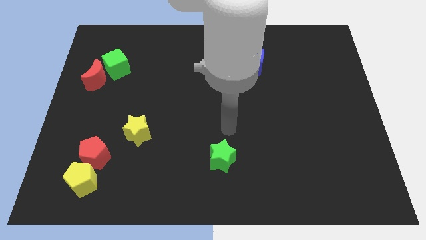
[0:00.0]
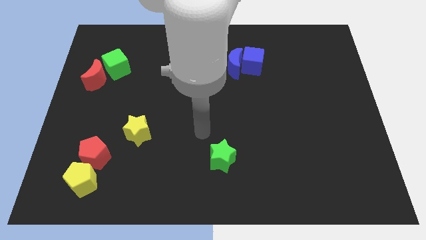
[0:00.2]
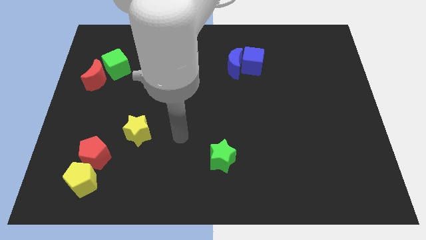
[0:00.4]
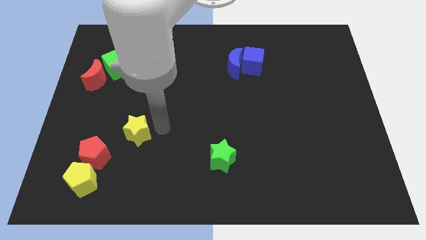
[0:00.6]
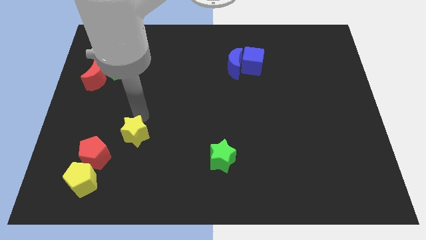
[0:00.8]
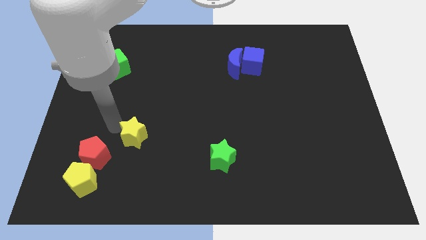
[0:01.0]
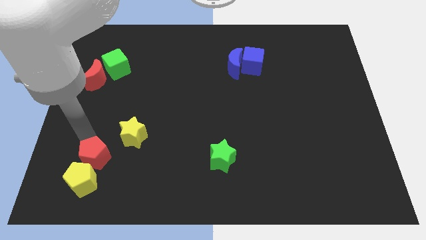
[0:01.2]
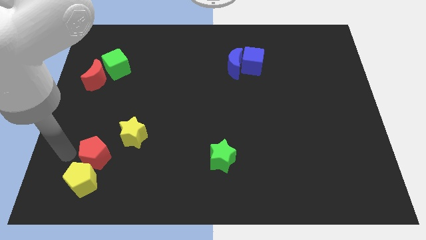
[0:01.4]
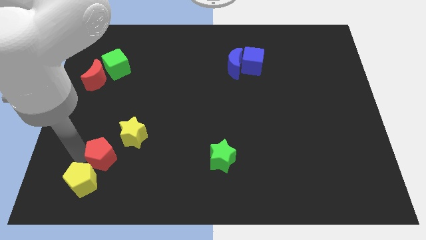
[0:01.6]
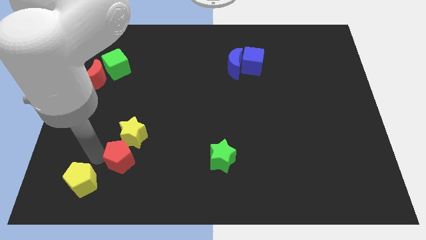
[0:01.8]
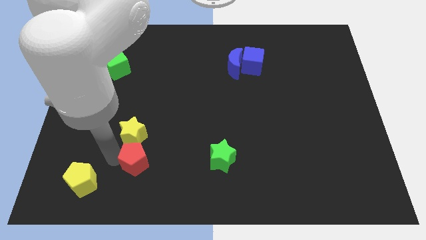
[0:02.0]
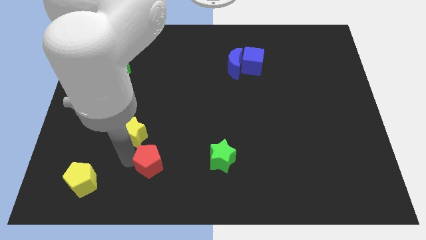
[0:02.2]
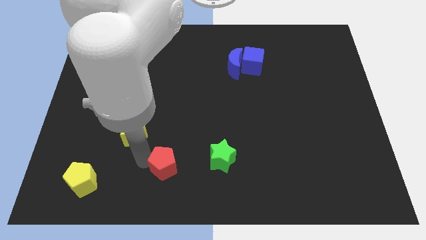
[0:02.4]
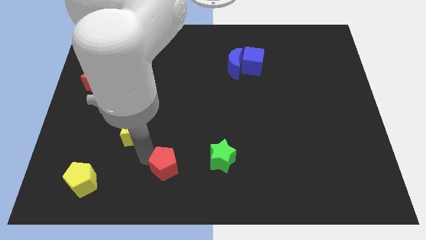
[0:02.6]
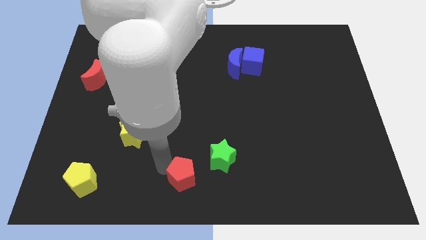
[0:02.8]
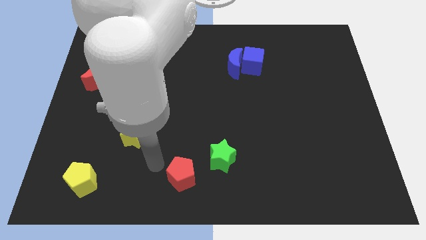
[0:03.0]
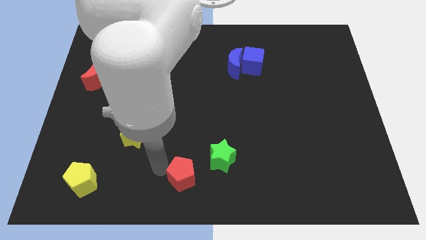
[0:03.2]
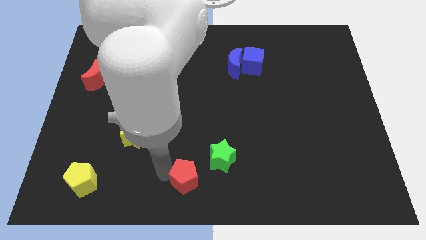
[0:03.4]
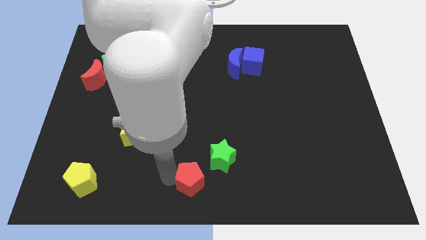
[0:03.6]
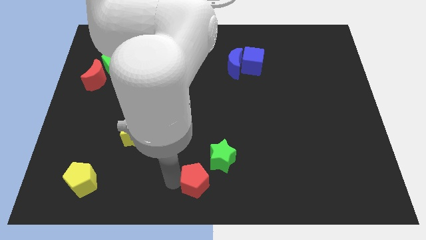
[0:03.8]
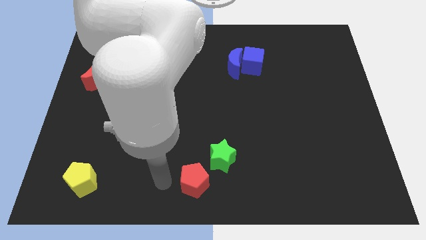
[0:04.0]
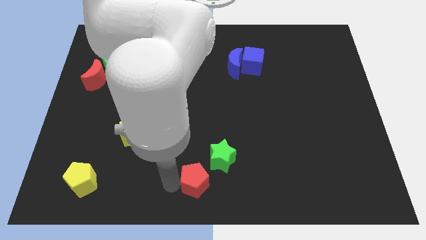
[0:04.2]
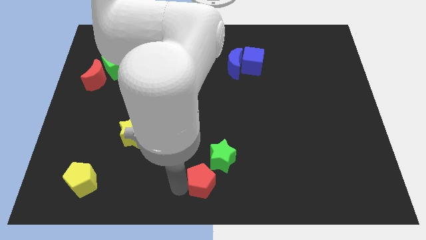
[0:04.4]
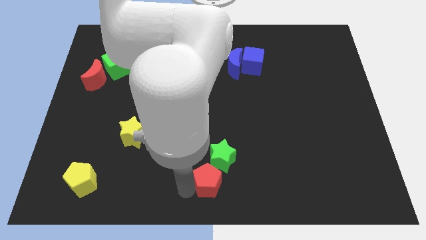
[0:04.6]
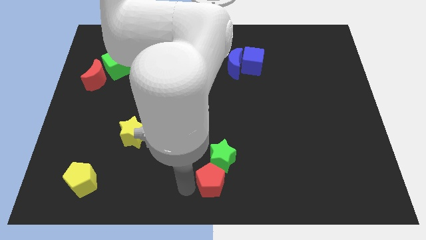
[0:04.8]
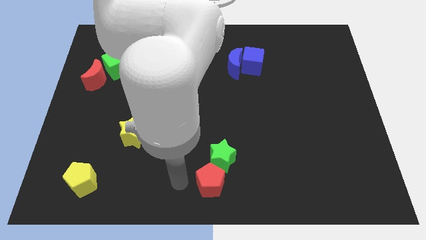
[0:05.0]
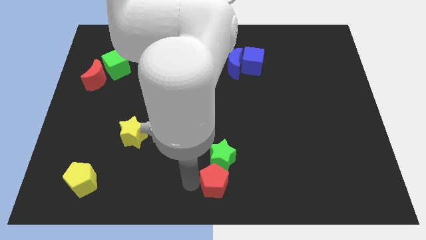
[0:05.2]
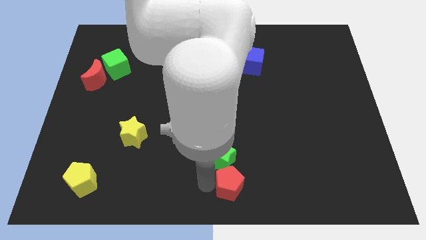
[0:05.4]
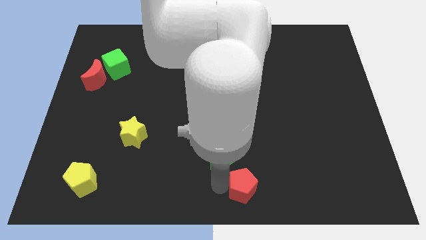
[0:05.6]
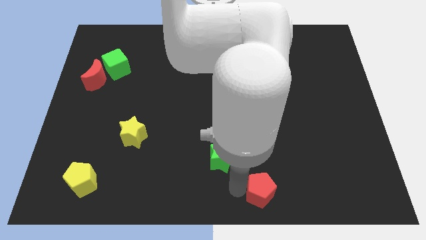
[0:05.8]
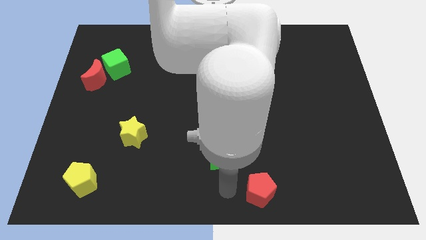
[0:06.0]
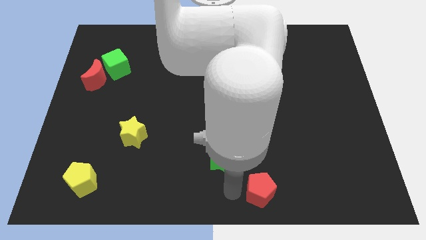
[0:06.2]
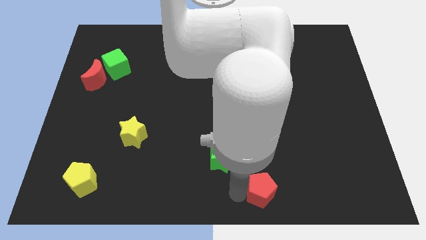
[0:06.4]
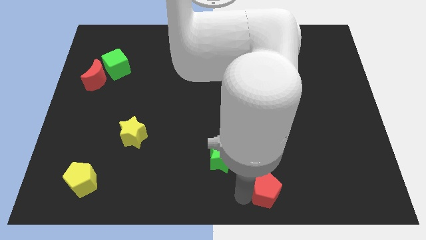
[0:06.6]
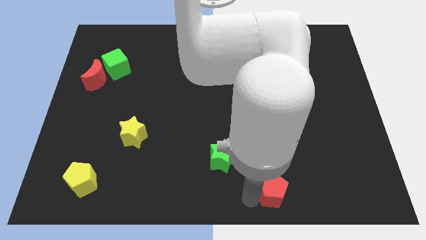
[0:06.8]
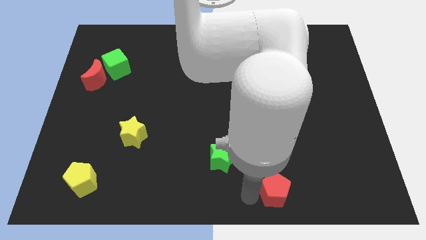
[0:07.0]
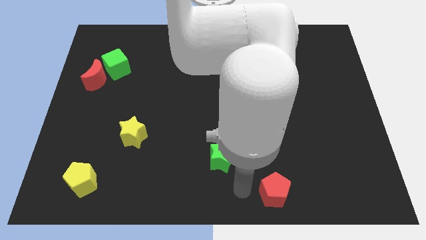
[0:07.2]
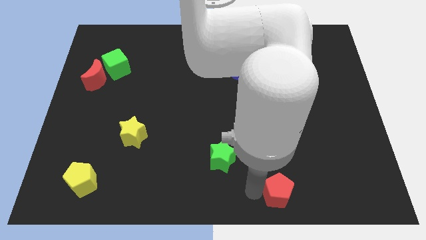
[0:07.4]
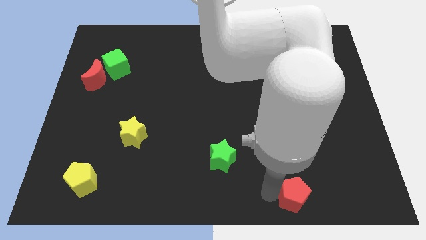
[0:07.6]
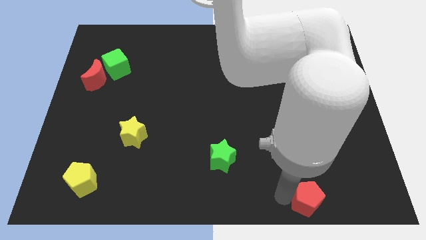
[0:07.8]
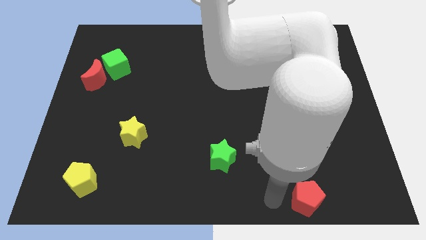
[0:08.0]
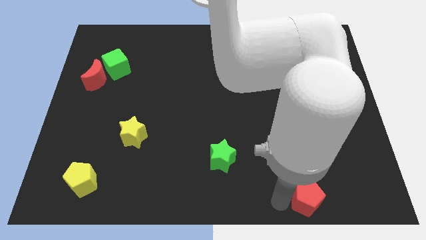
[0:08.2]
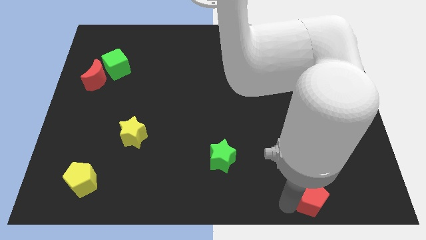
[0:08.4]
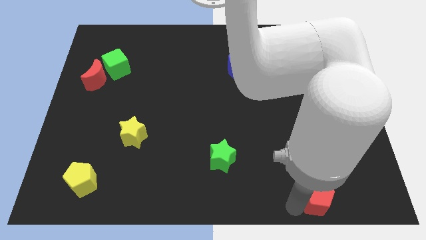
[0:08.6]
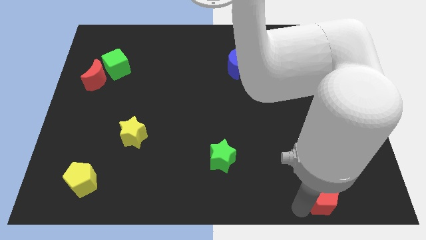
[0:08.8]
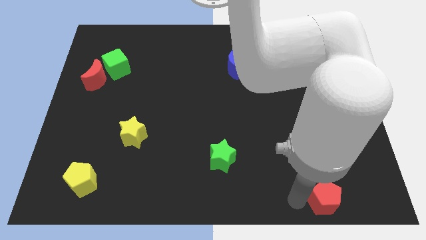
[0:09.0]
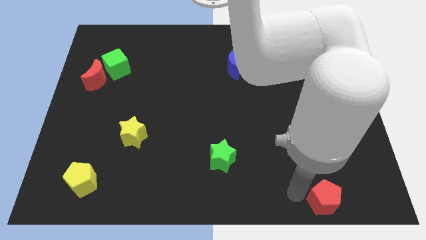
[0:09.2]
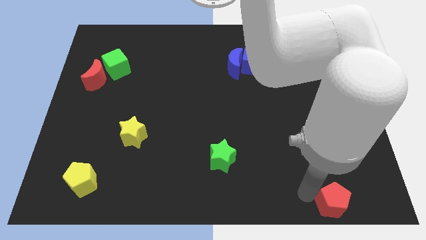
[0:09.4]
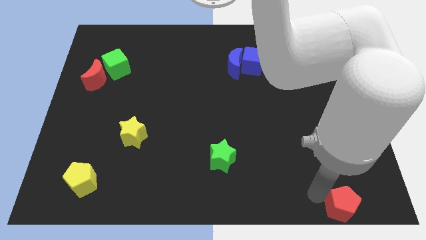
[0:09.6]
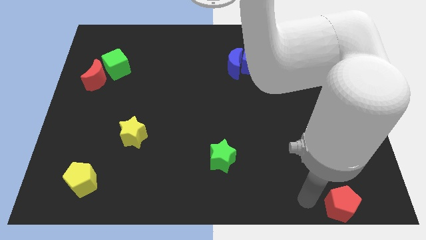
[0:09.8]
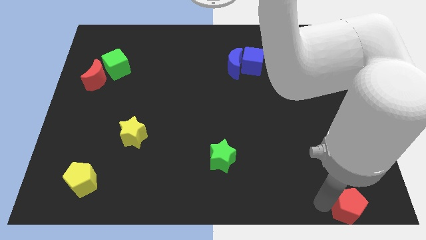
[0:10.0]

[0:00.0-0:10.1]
put the red pentagon to the lower right corner

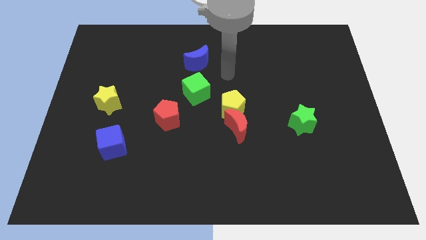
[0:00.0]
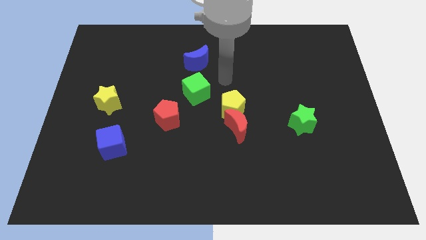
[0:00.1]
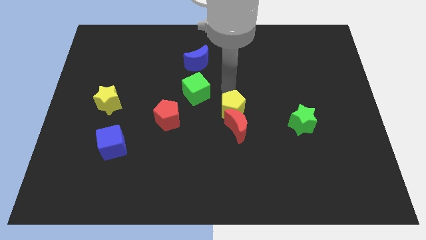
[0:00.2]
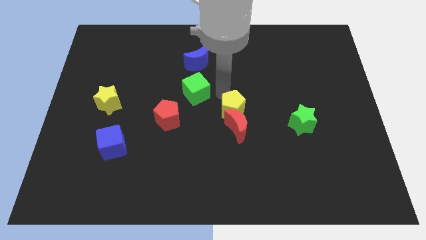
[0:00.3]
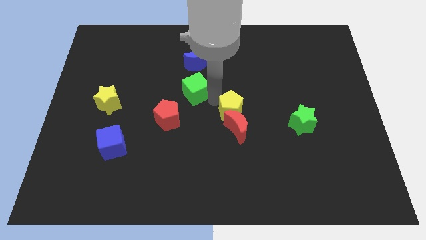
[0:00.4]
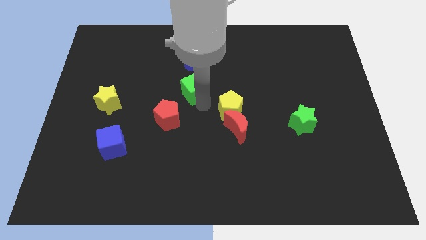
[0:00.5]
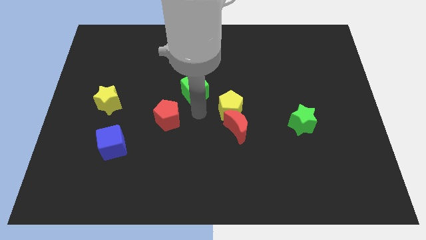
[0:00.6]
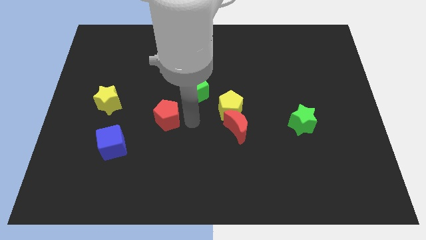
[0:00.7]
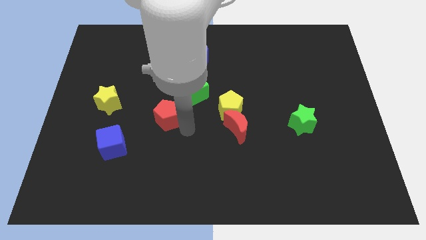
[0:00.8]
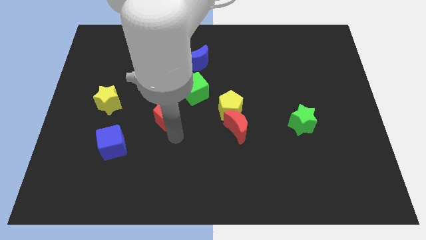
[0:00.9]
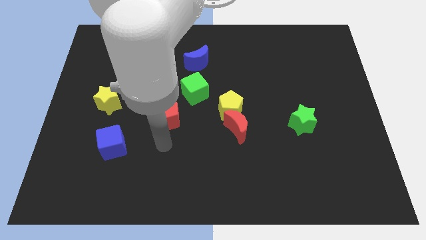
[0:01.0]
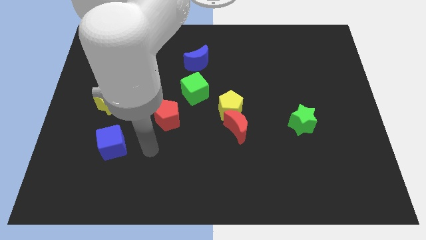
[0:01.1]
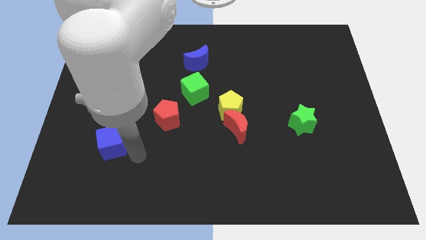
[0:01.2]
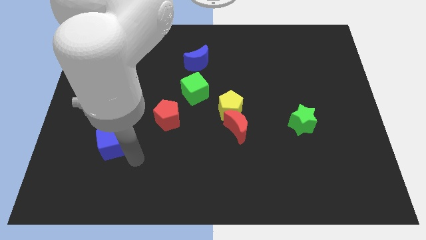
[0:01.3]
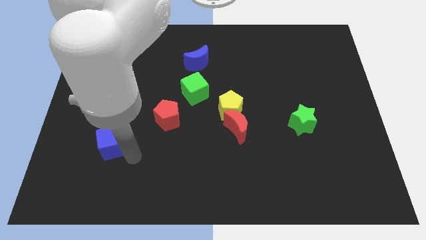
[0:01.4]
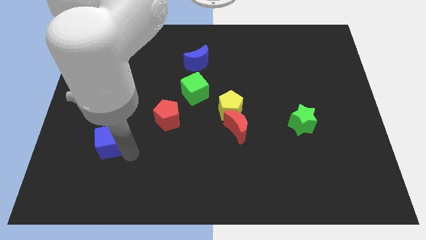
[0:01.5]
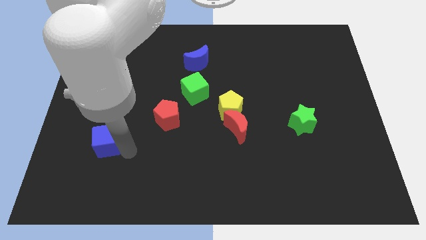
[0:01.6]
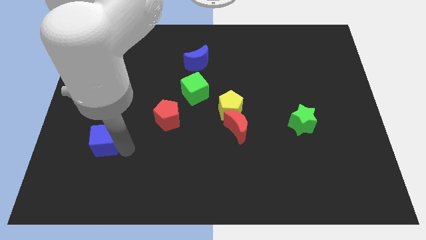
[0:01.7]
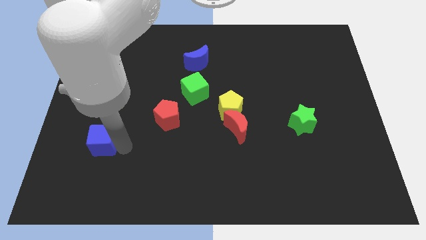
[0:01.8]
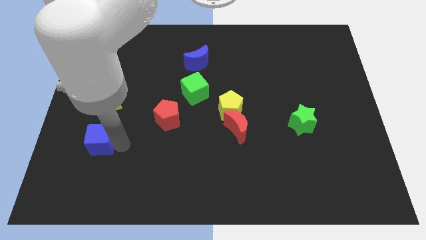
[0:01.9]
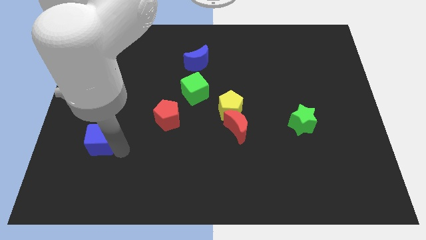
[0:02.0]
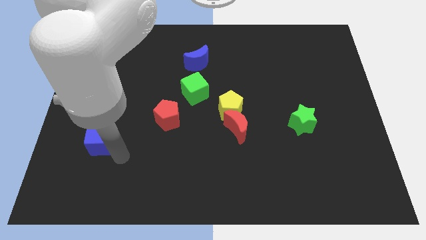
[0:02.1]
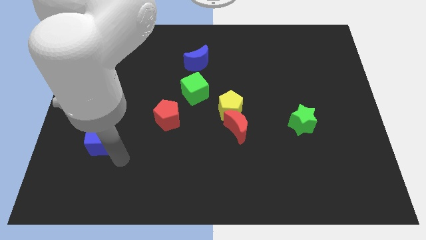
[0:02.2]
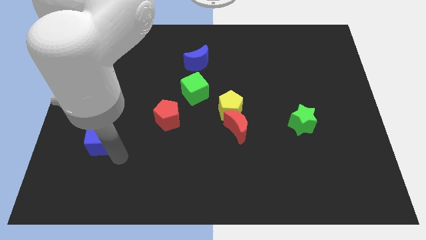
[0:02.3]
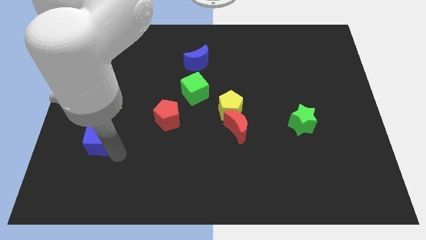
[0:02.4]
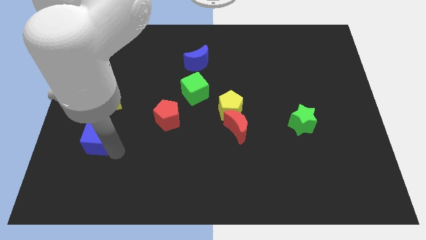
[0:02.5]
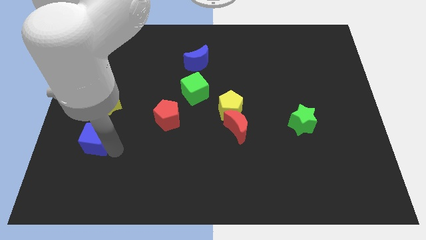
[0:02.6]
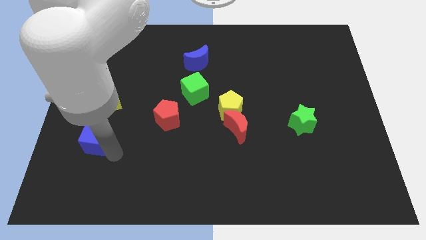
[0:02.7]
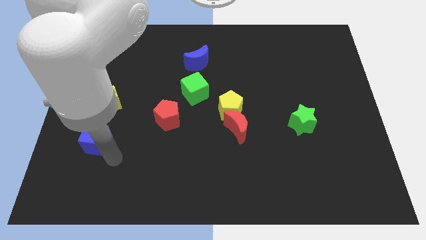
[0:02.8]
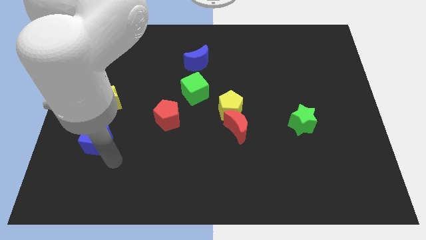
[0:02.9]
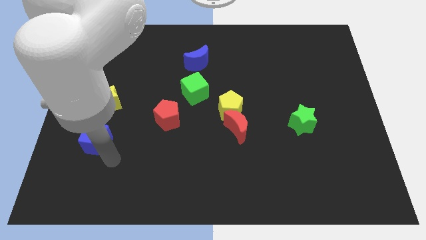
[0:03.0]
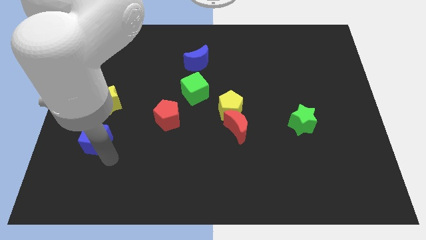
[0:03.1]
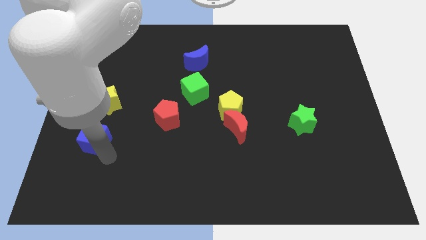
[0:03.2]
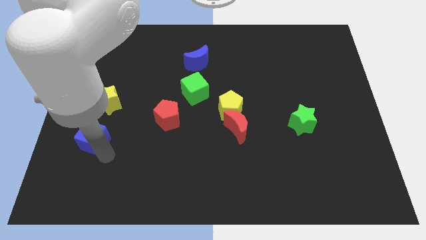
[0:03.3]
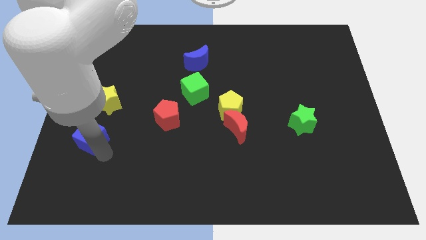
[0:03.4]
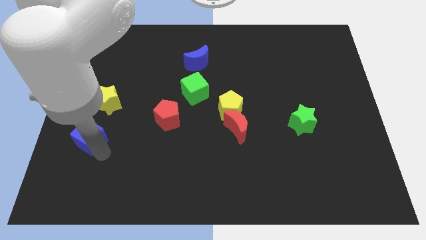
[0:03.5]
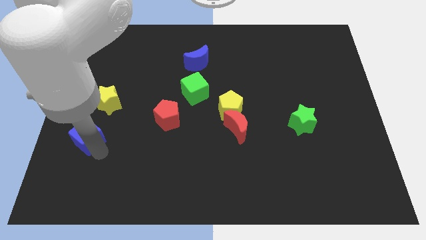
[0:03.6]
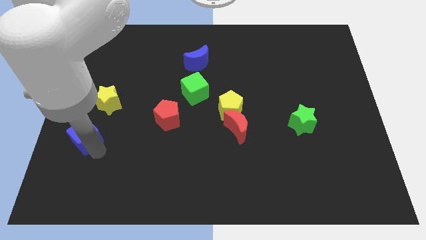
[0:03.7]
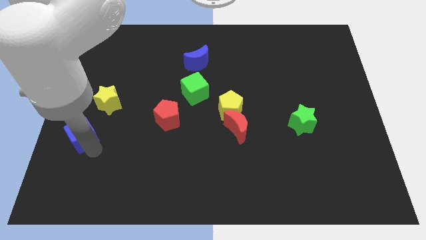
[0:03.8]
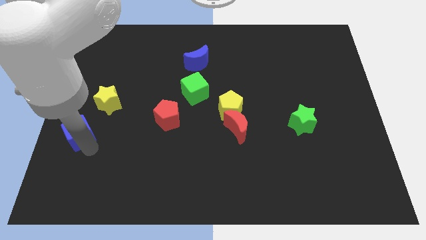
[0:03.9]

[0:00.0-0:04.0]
move the blue cube to the center left
